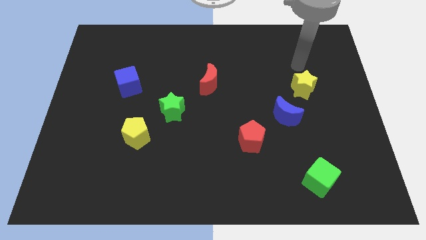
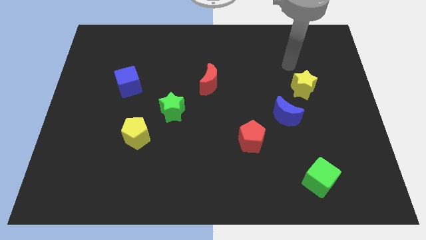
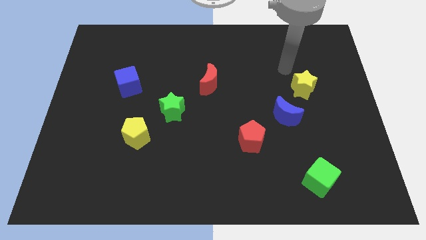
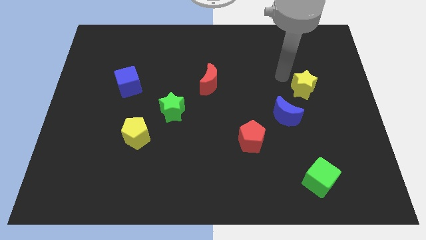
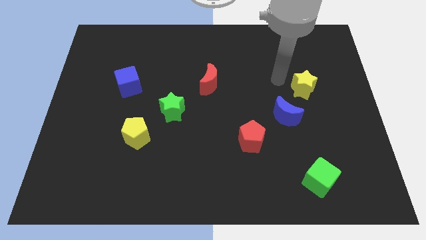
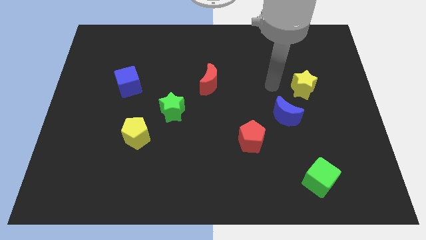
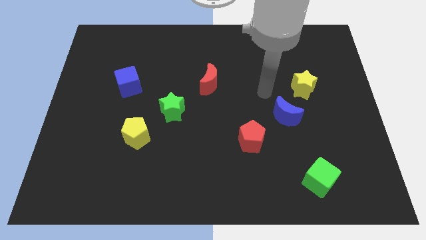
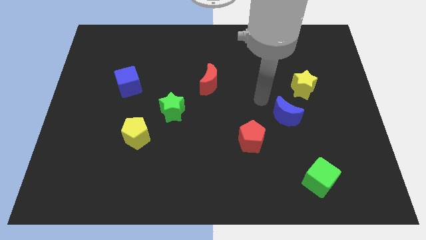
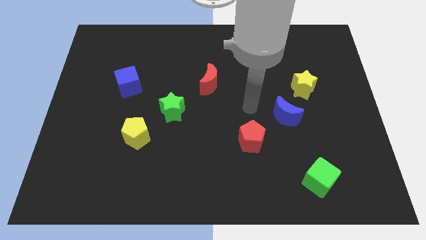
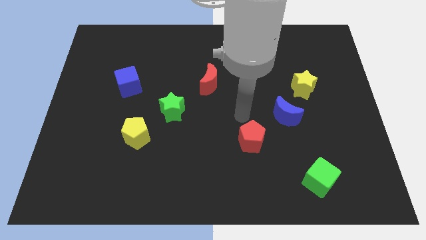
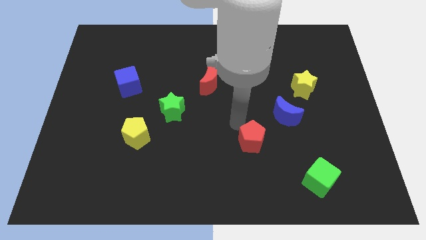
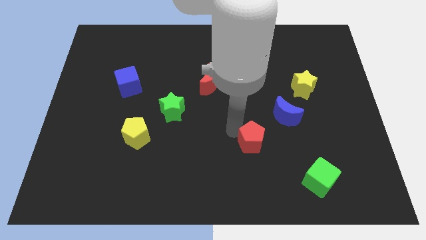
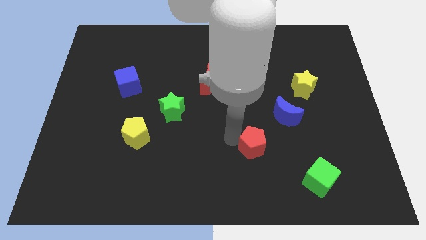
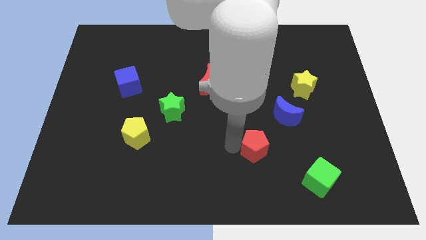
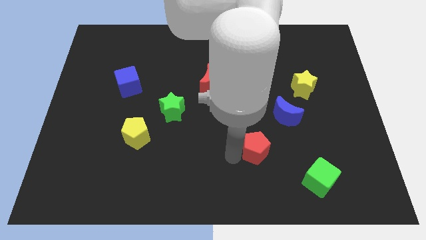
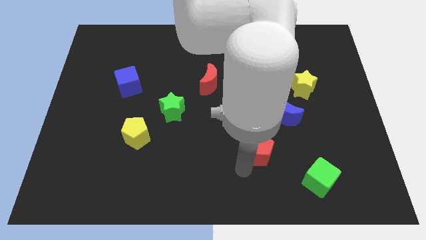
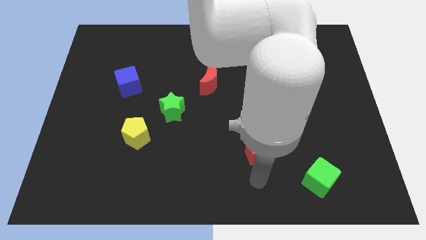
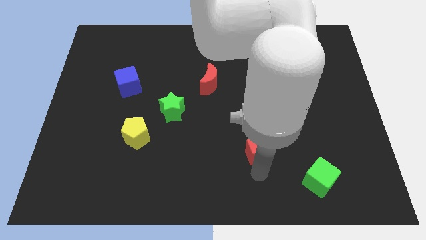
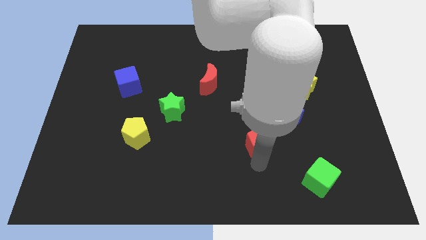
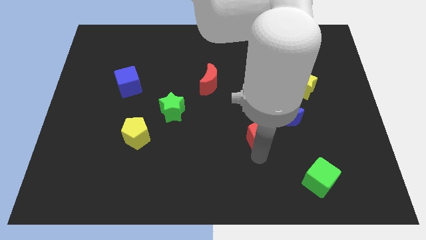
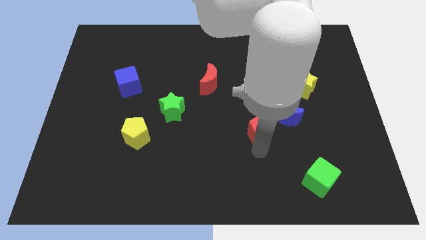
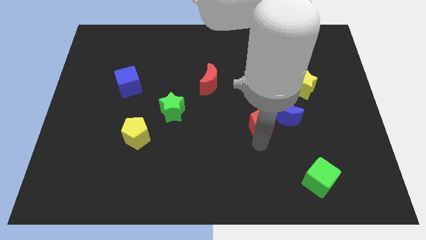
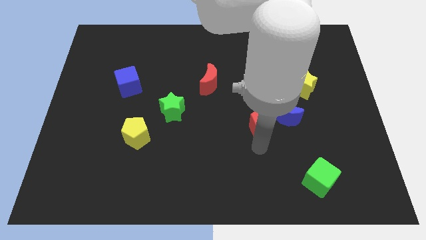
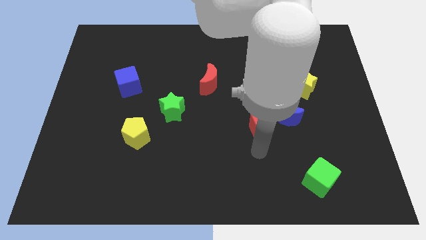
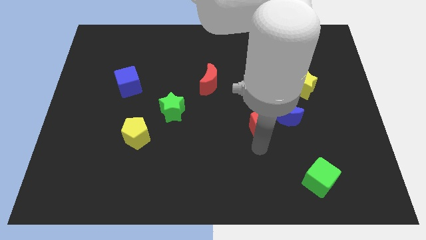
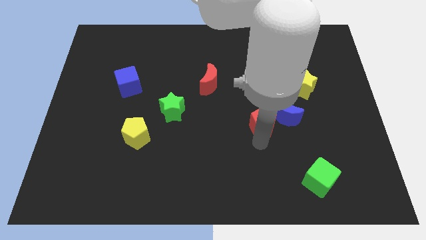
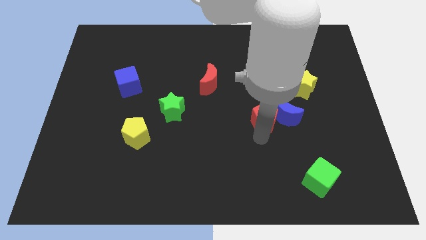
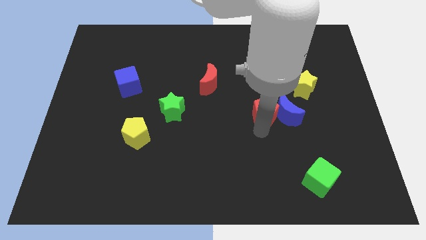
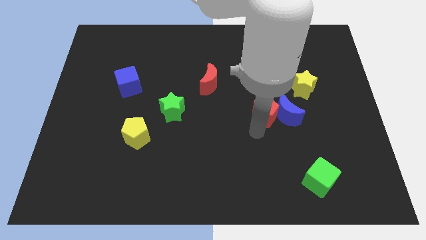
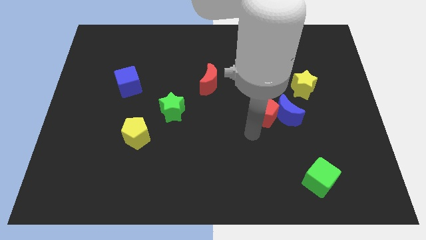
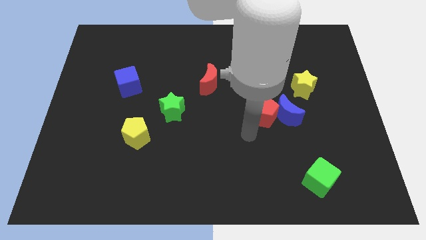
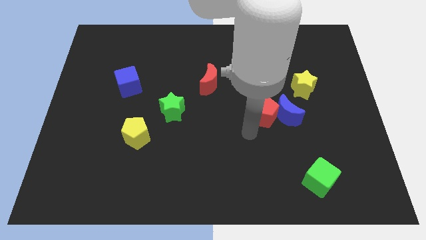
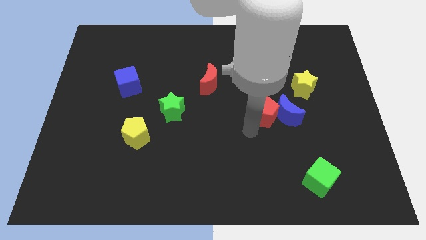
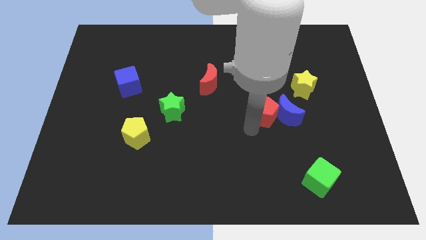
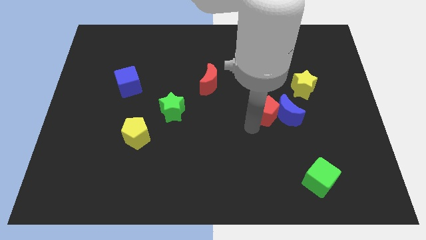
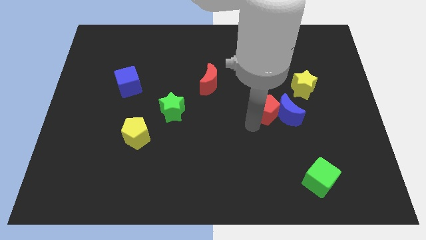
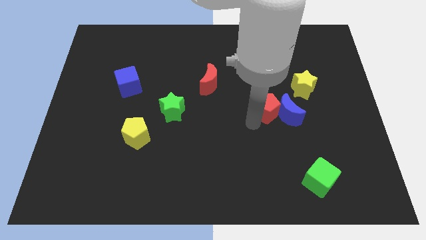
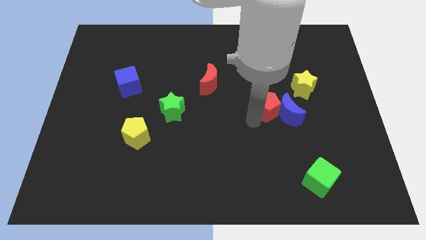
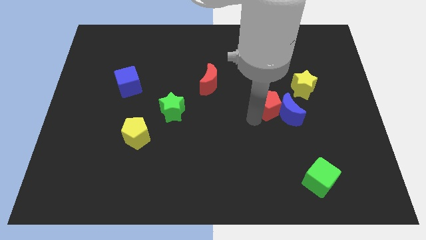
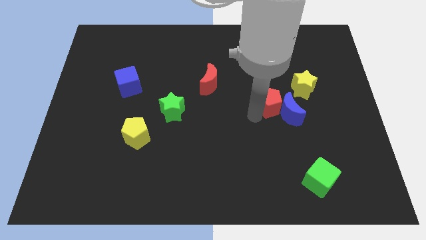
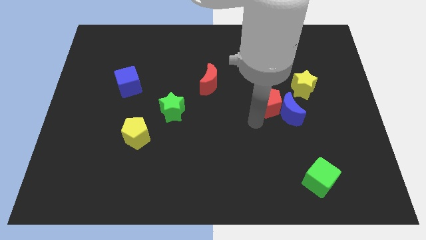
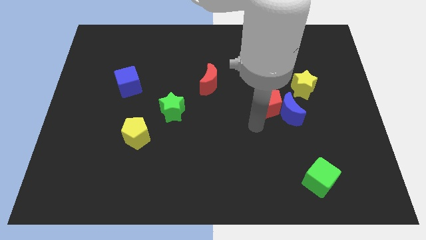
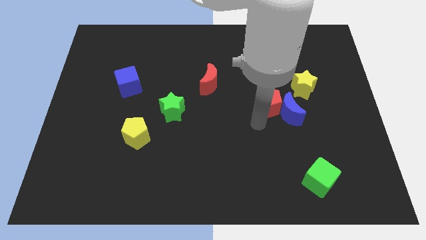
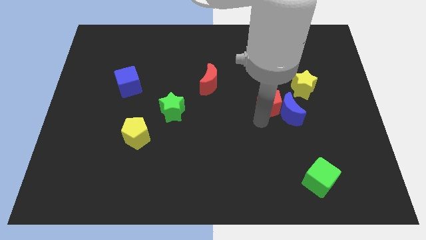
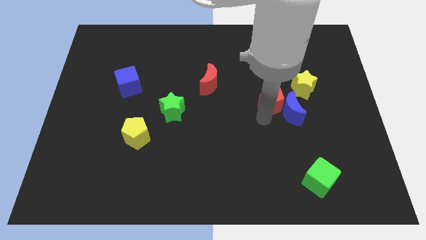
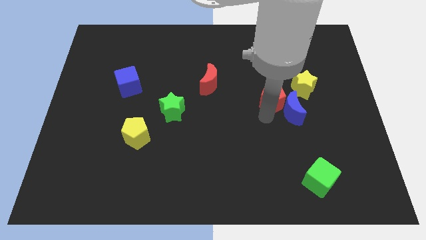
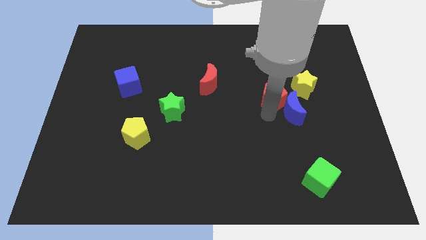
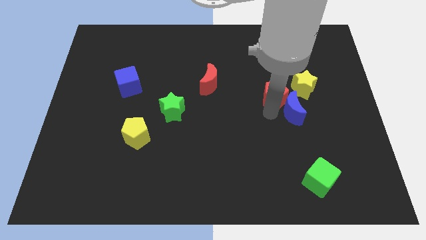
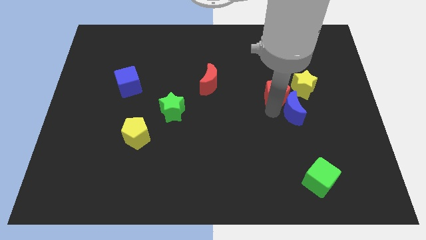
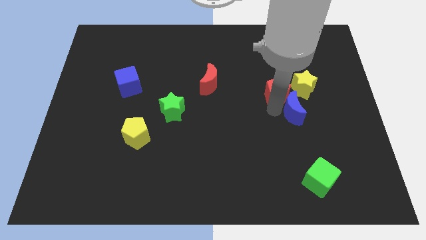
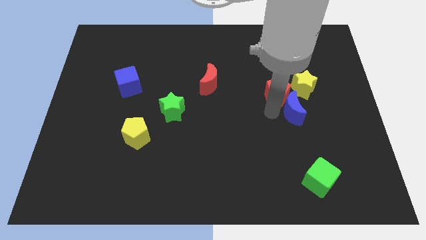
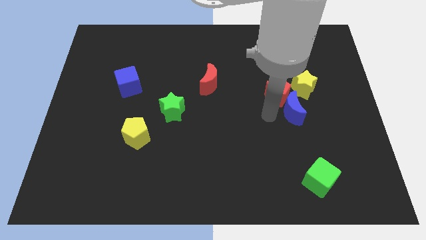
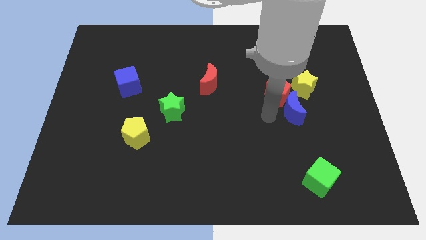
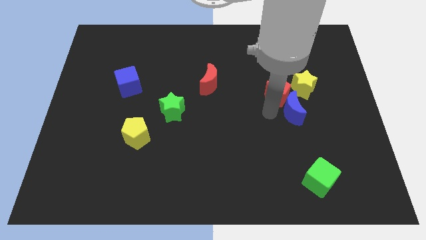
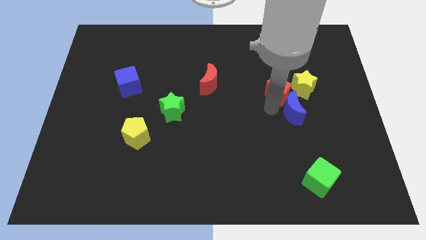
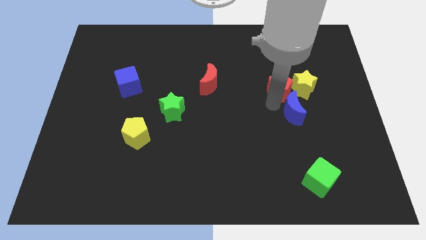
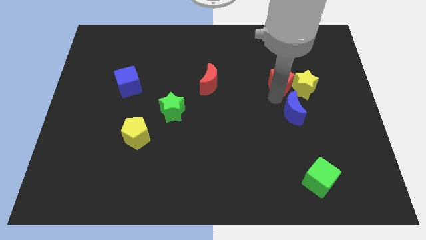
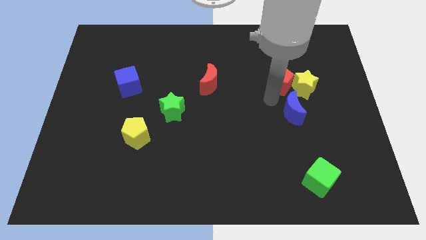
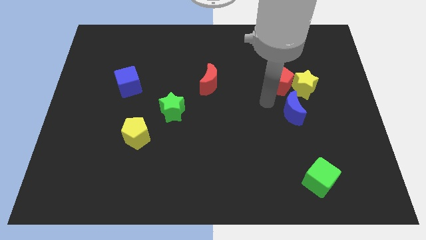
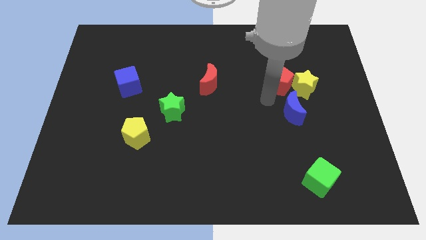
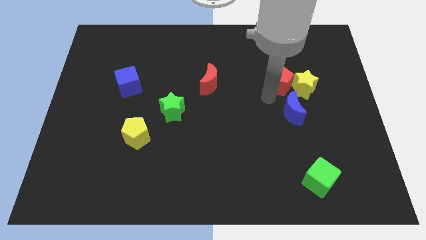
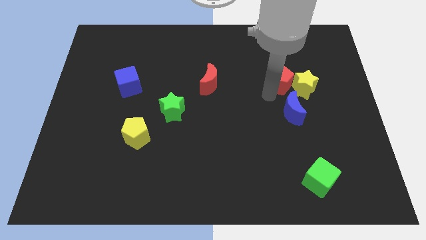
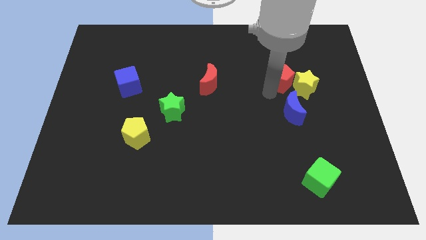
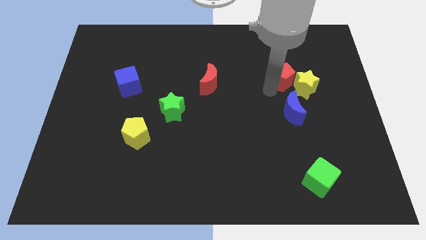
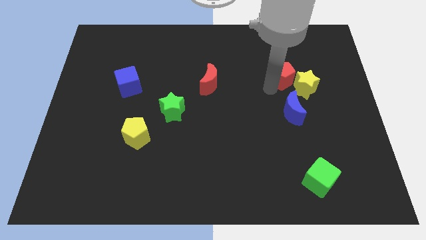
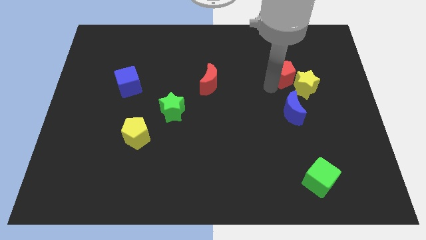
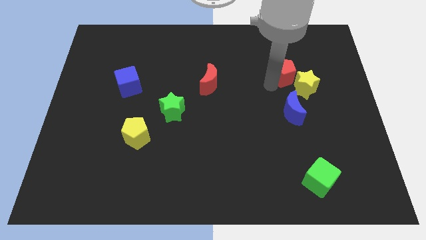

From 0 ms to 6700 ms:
put the red pentagon to the top of the yellow star
